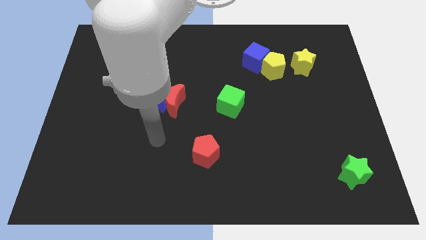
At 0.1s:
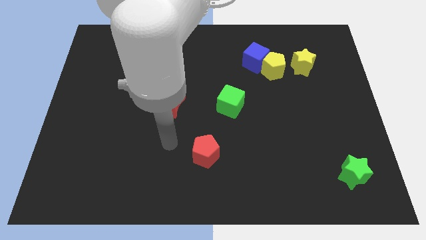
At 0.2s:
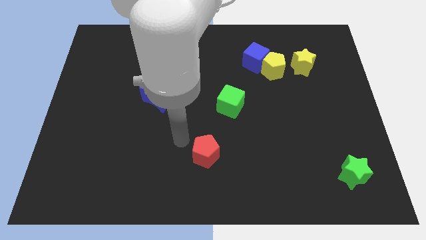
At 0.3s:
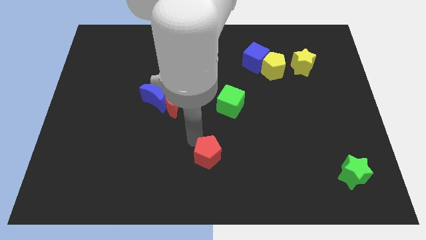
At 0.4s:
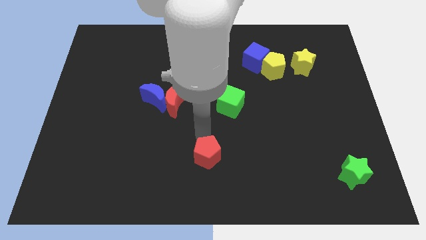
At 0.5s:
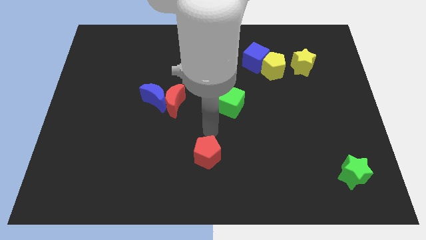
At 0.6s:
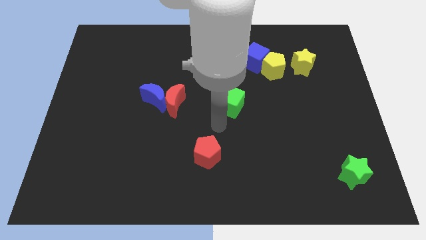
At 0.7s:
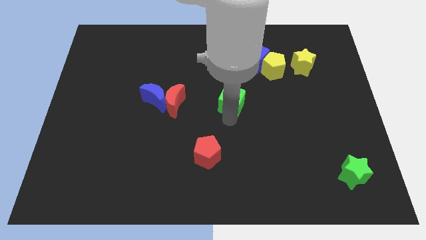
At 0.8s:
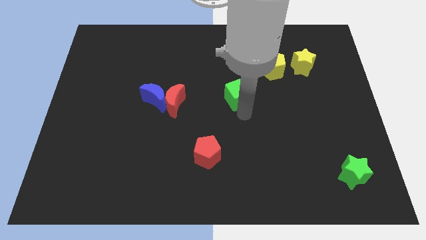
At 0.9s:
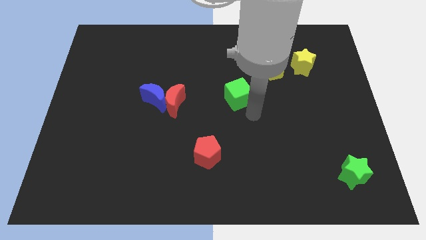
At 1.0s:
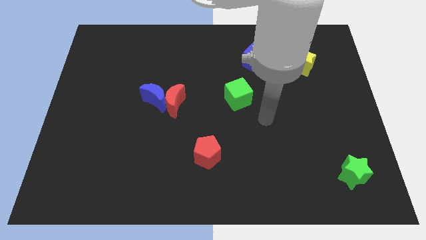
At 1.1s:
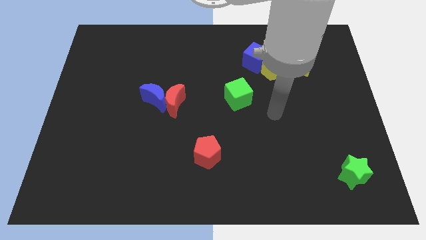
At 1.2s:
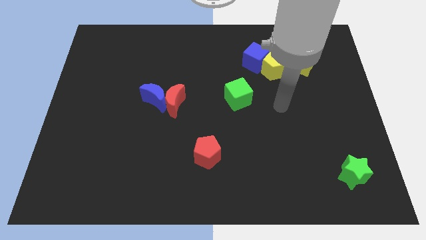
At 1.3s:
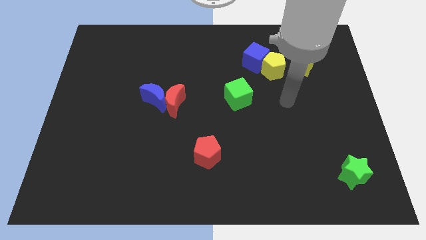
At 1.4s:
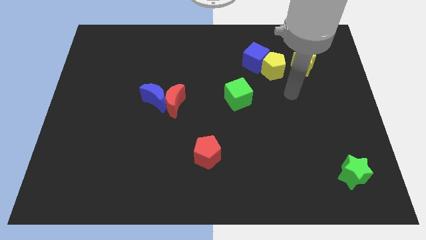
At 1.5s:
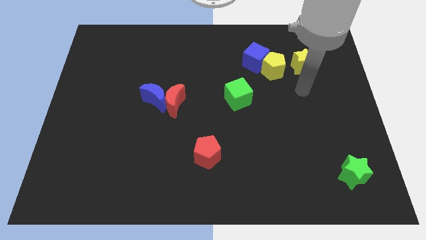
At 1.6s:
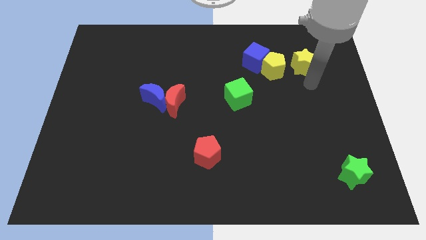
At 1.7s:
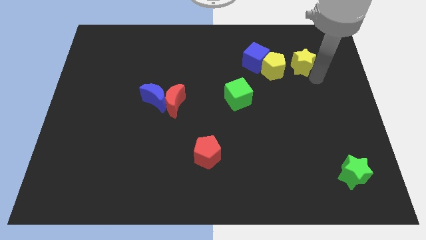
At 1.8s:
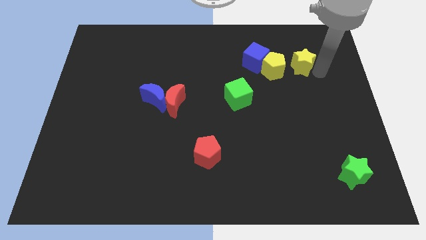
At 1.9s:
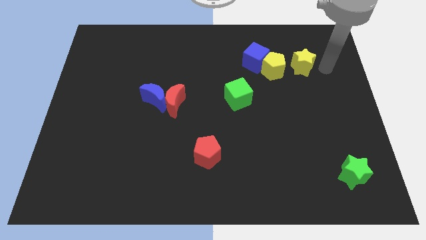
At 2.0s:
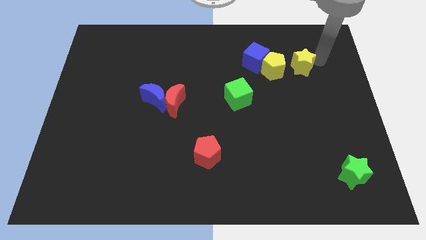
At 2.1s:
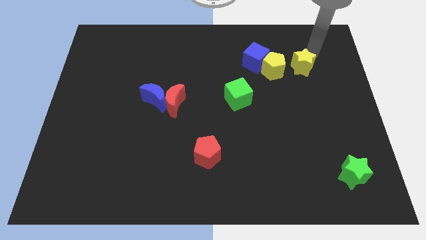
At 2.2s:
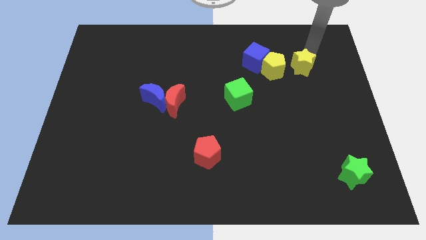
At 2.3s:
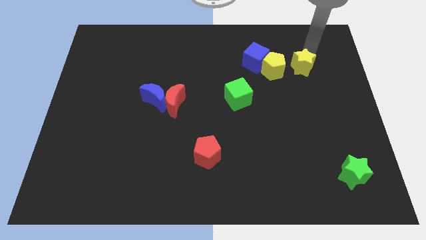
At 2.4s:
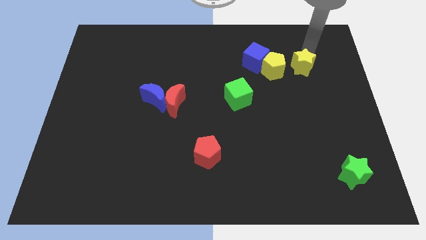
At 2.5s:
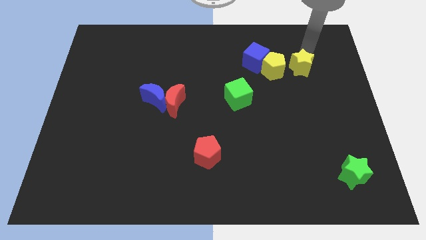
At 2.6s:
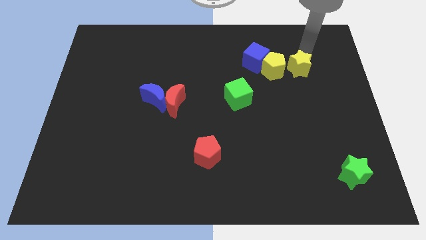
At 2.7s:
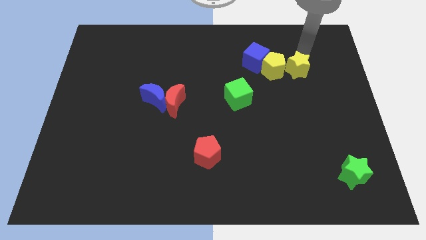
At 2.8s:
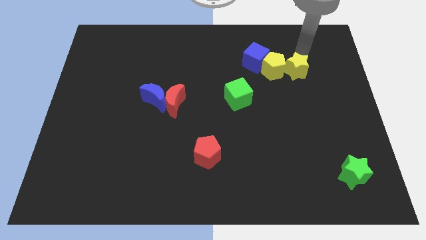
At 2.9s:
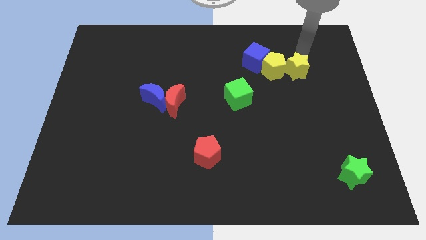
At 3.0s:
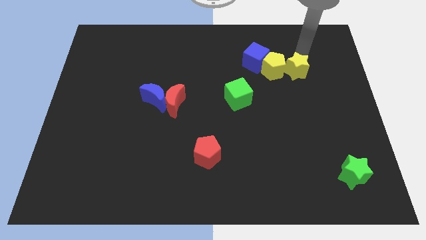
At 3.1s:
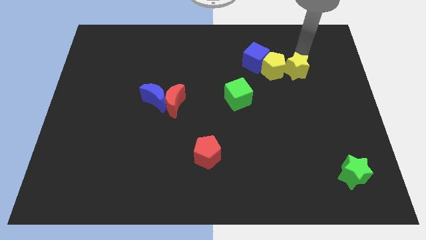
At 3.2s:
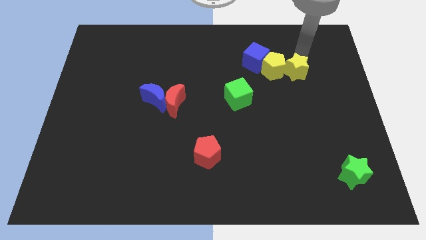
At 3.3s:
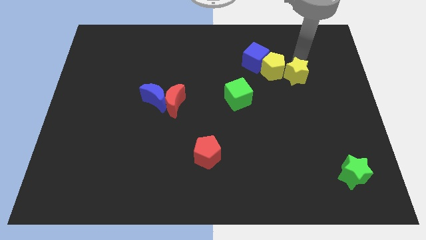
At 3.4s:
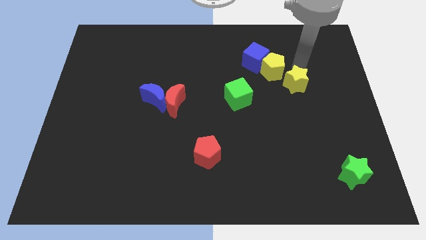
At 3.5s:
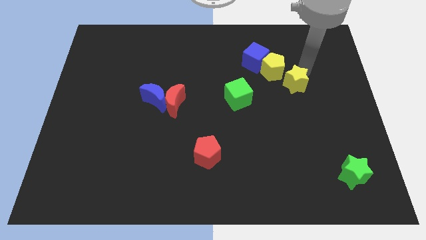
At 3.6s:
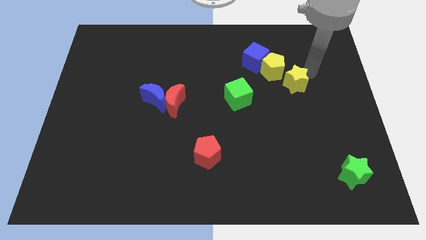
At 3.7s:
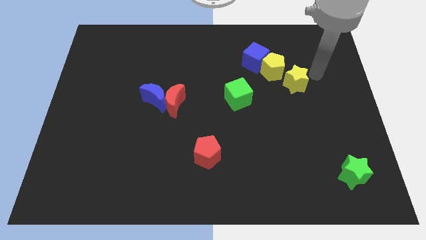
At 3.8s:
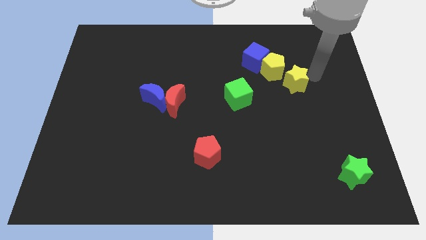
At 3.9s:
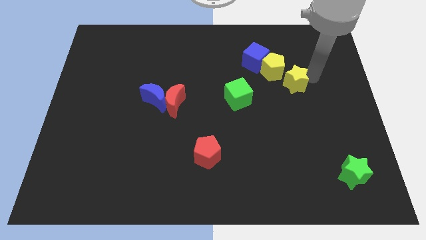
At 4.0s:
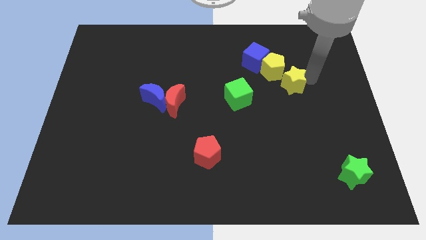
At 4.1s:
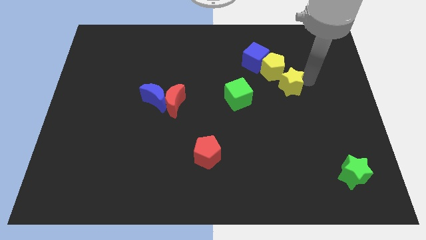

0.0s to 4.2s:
move the yellow star downwards and left slightly

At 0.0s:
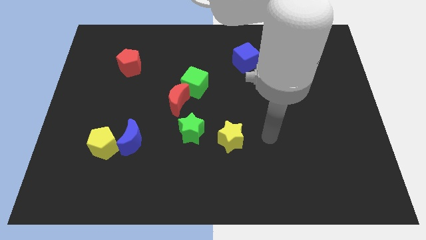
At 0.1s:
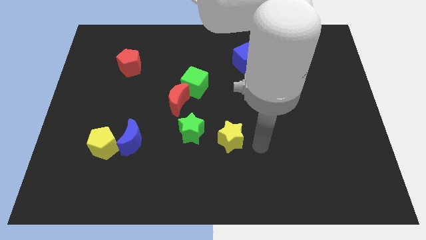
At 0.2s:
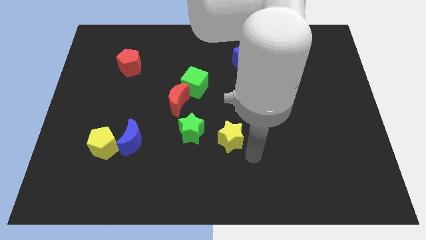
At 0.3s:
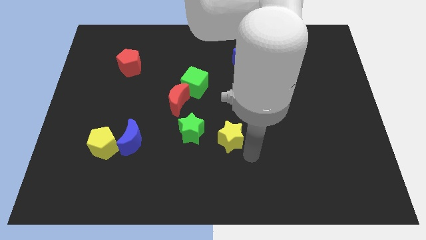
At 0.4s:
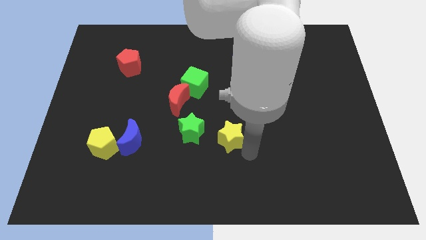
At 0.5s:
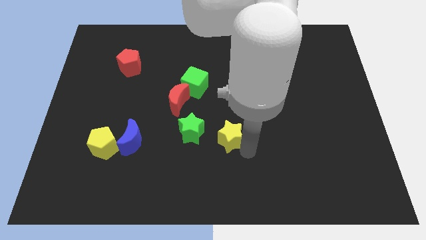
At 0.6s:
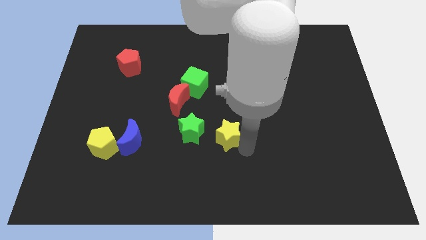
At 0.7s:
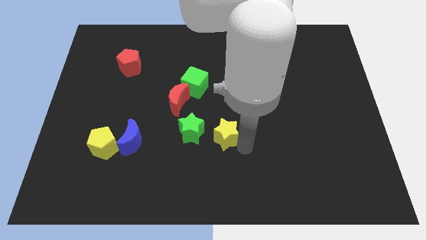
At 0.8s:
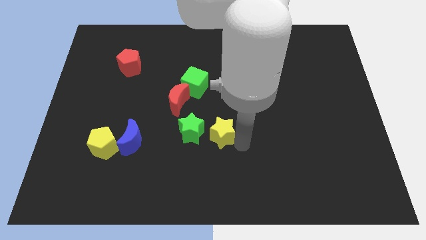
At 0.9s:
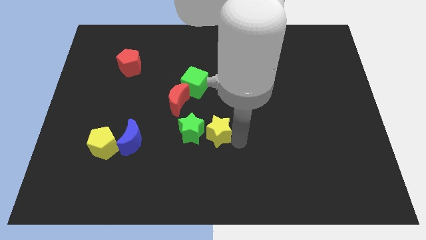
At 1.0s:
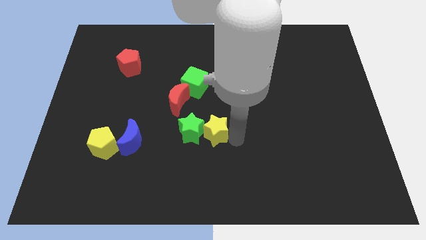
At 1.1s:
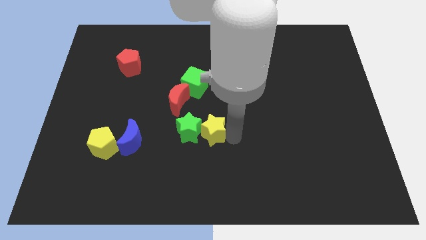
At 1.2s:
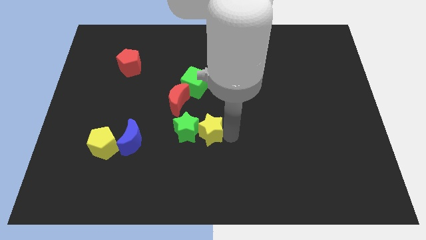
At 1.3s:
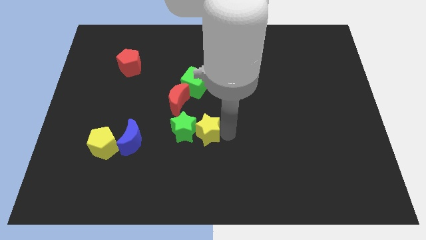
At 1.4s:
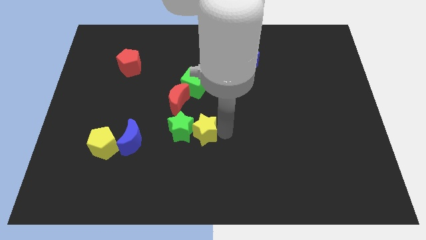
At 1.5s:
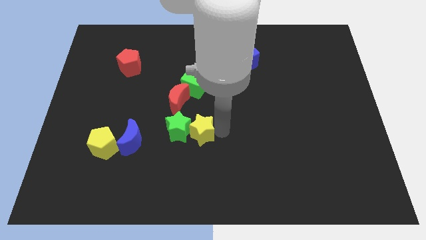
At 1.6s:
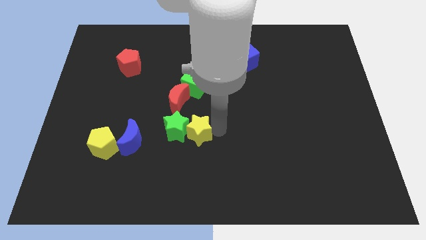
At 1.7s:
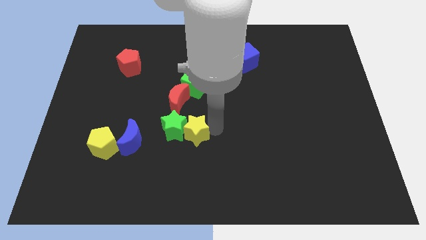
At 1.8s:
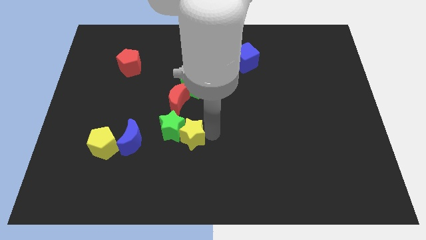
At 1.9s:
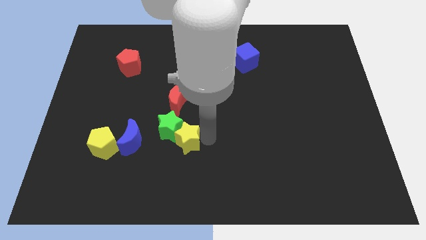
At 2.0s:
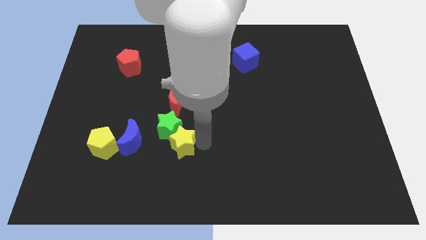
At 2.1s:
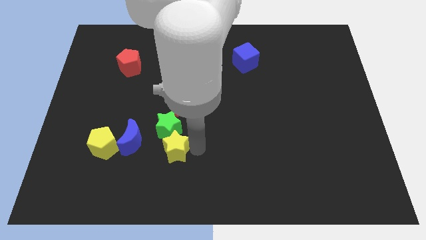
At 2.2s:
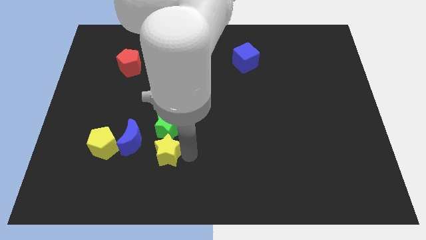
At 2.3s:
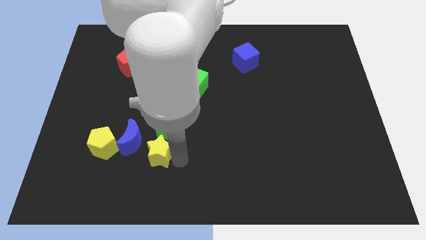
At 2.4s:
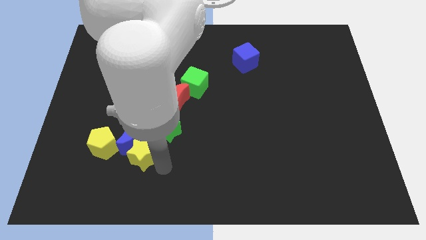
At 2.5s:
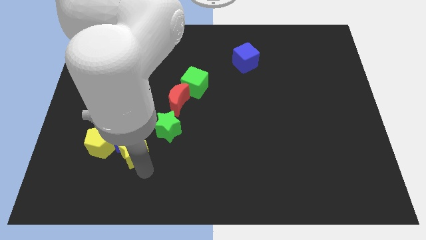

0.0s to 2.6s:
move the yellow star left

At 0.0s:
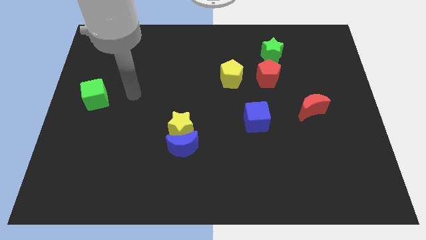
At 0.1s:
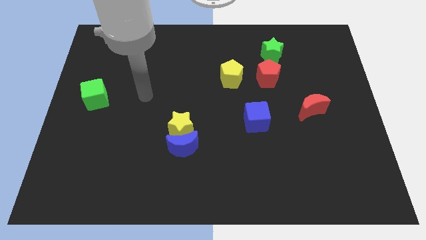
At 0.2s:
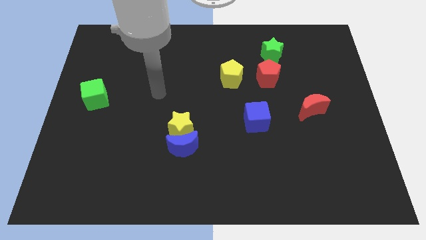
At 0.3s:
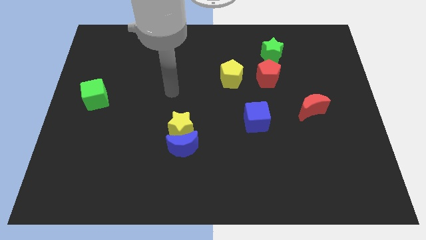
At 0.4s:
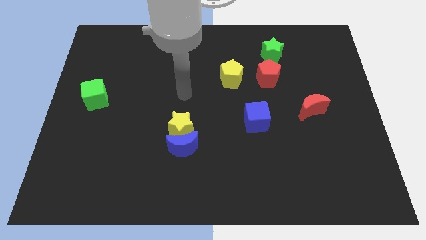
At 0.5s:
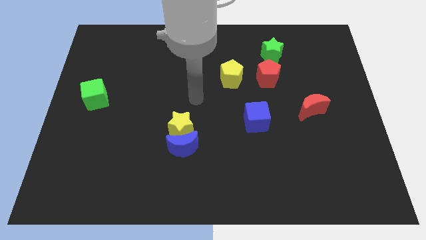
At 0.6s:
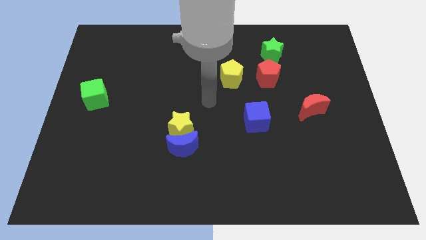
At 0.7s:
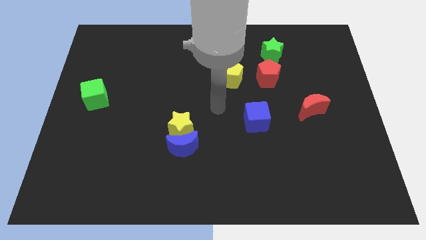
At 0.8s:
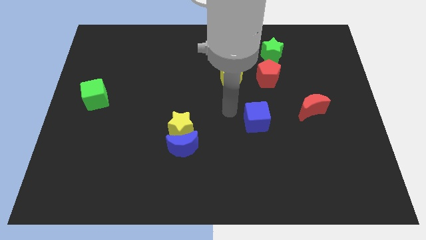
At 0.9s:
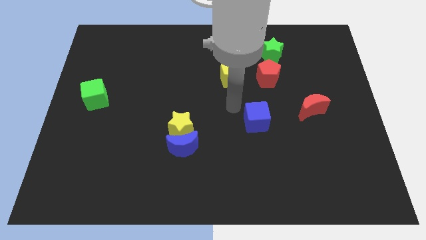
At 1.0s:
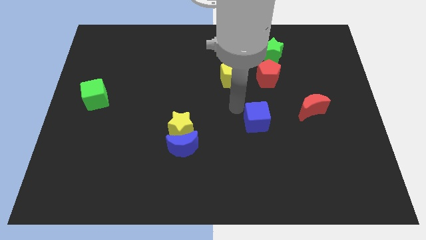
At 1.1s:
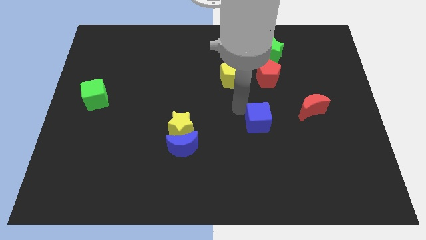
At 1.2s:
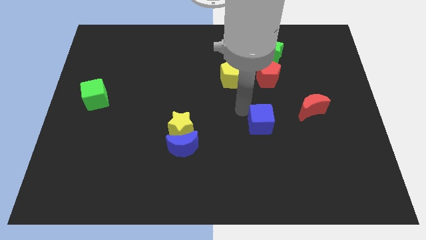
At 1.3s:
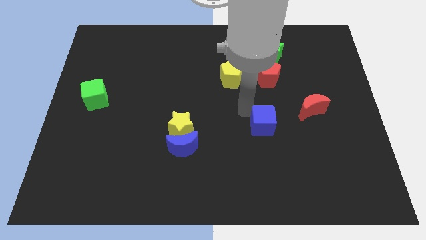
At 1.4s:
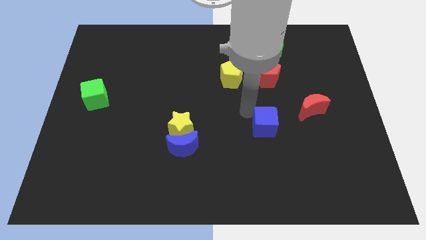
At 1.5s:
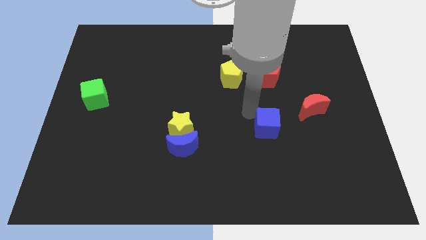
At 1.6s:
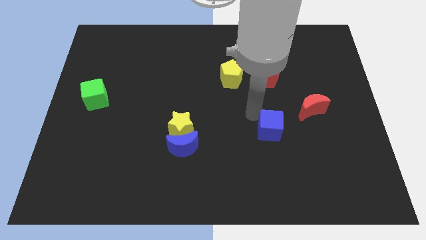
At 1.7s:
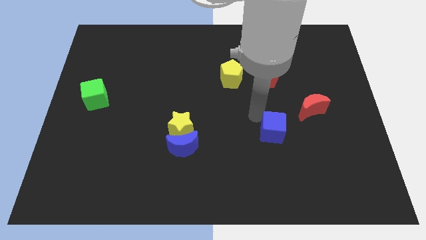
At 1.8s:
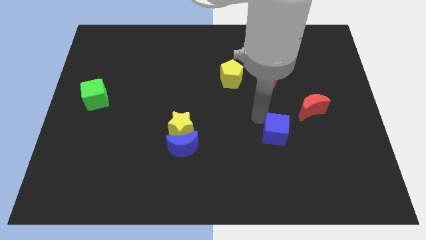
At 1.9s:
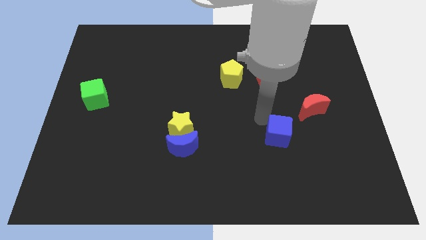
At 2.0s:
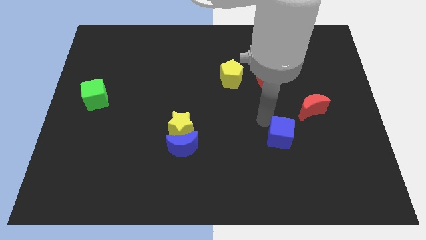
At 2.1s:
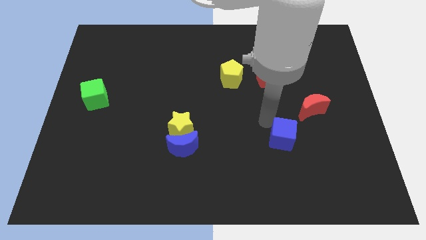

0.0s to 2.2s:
push the blue cube diagonally downwards and right a little
